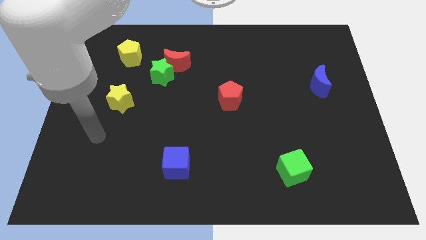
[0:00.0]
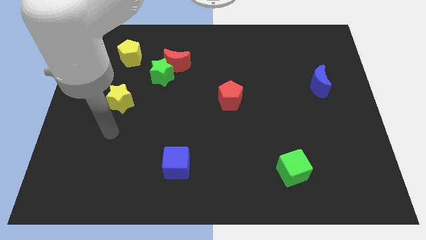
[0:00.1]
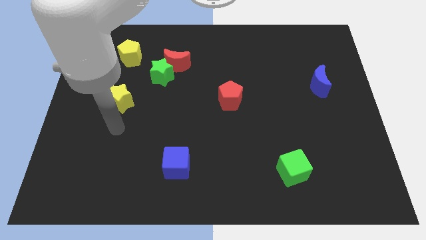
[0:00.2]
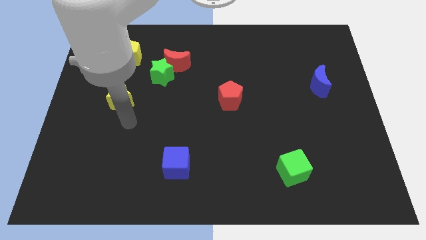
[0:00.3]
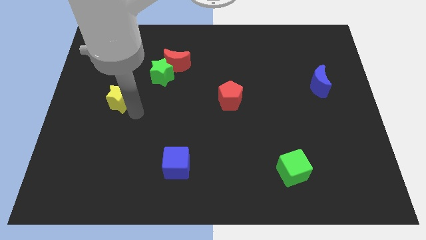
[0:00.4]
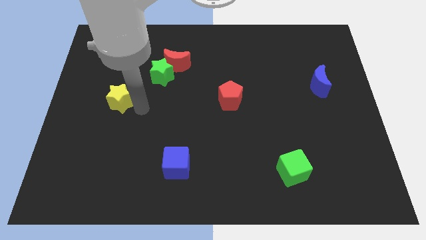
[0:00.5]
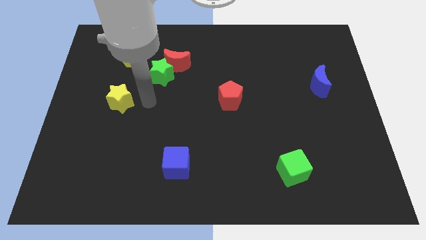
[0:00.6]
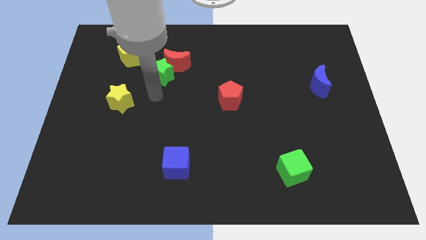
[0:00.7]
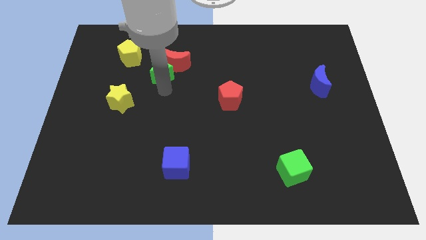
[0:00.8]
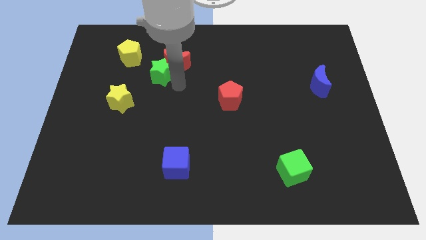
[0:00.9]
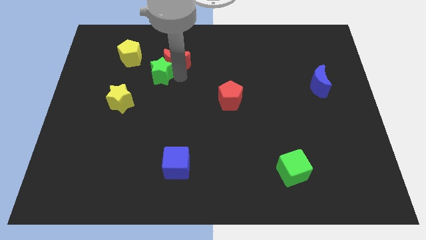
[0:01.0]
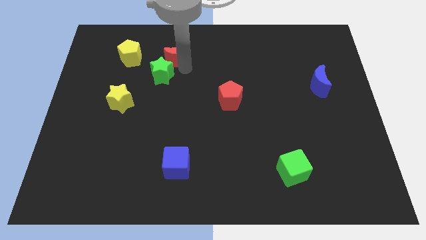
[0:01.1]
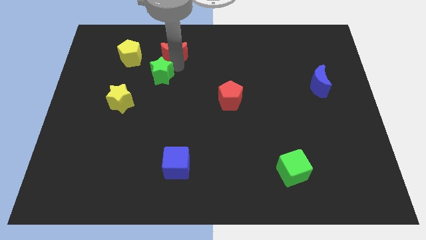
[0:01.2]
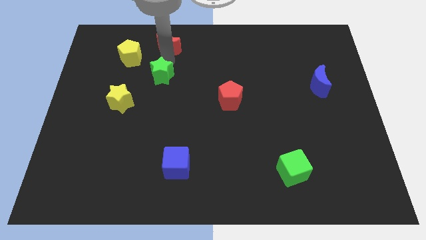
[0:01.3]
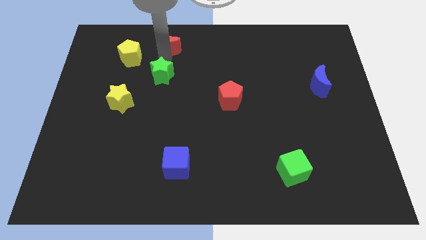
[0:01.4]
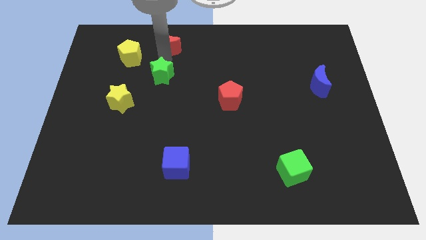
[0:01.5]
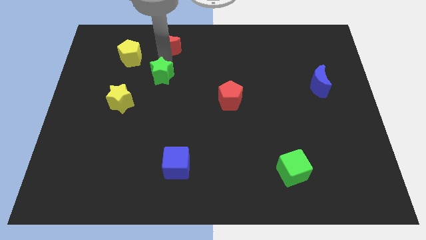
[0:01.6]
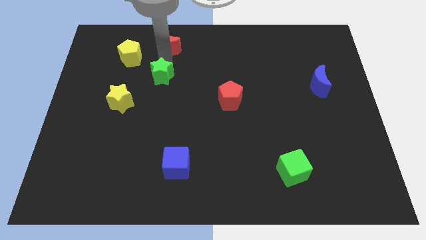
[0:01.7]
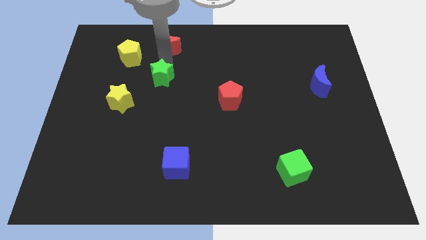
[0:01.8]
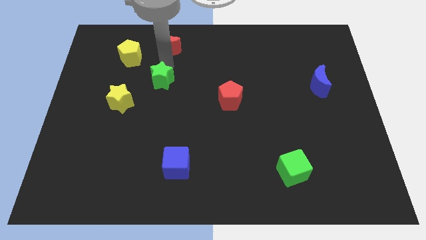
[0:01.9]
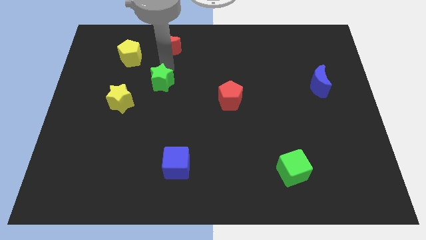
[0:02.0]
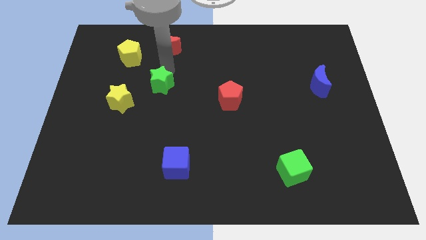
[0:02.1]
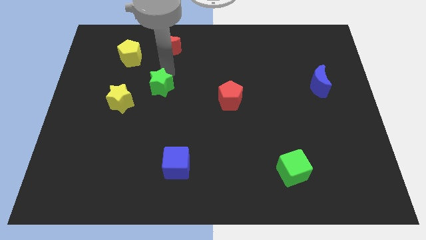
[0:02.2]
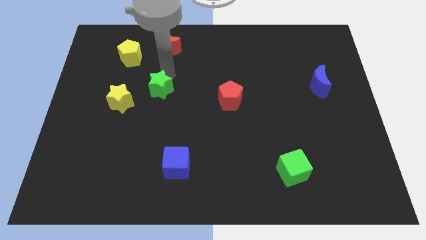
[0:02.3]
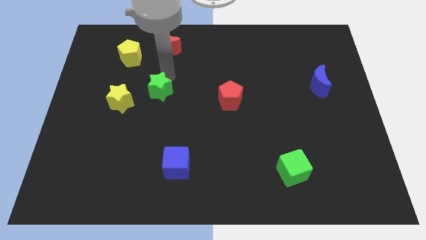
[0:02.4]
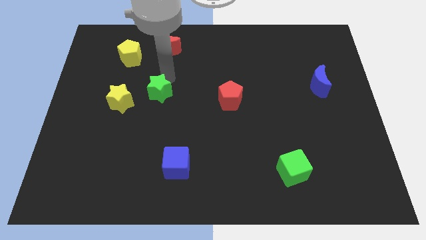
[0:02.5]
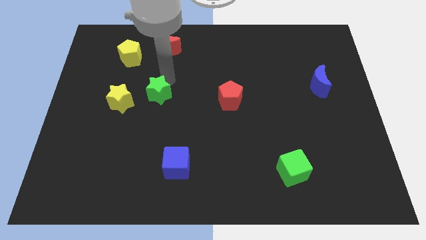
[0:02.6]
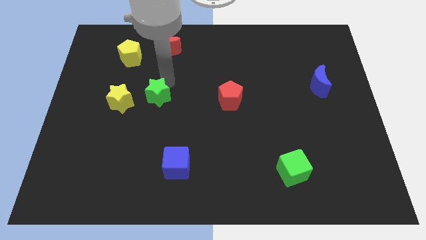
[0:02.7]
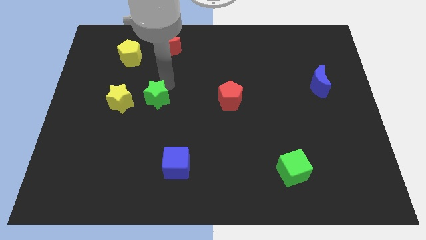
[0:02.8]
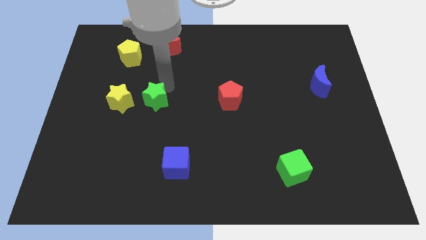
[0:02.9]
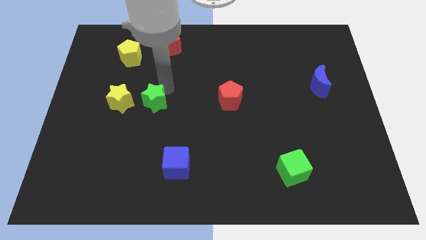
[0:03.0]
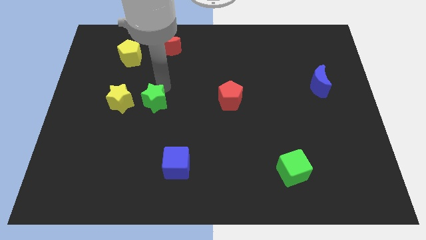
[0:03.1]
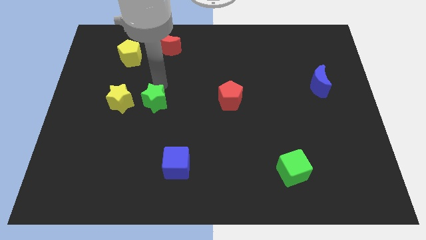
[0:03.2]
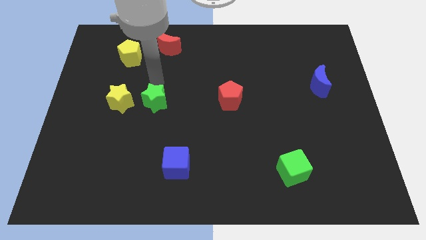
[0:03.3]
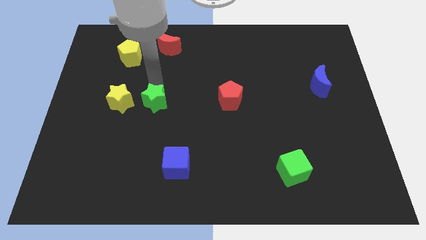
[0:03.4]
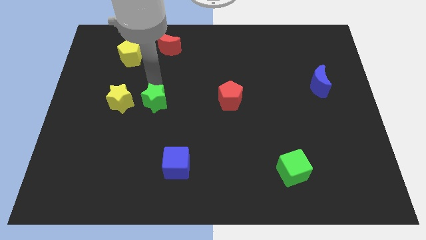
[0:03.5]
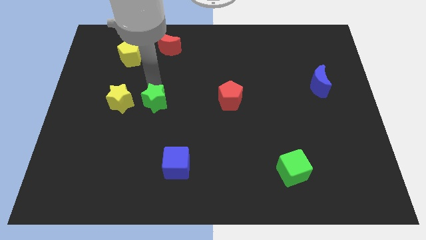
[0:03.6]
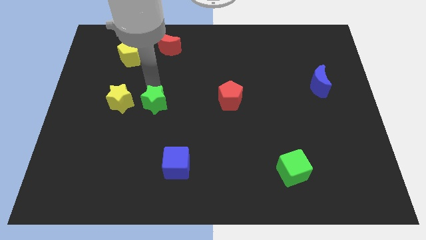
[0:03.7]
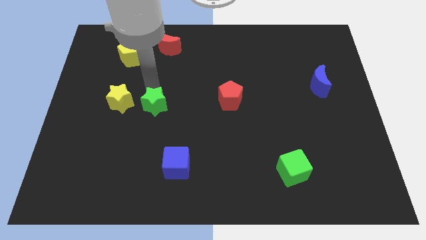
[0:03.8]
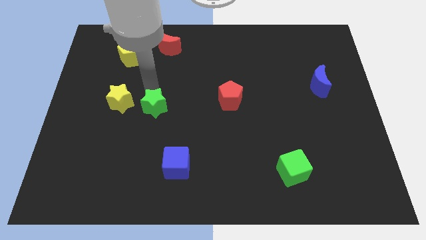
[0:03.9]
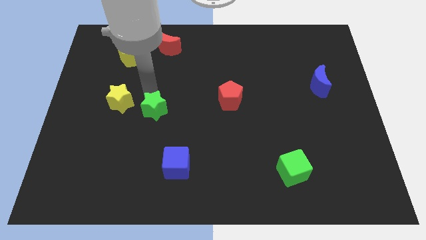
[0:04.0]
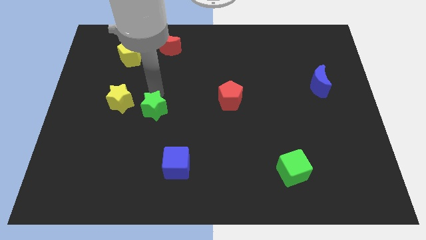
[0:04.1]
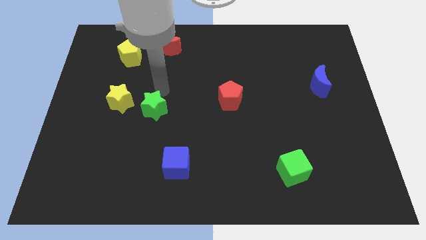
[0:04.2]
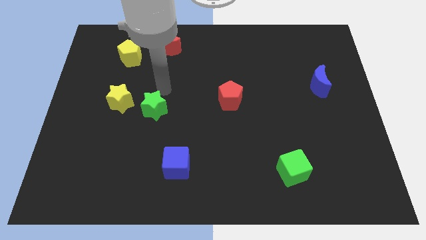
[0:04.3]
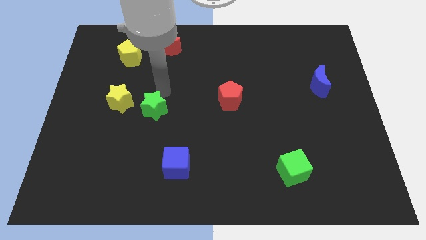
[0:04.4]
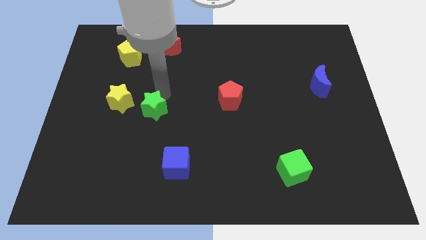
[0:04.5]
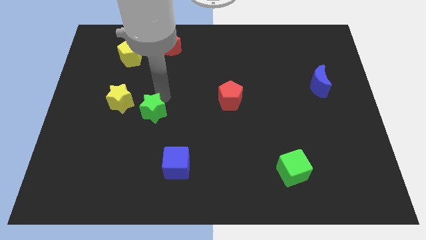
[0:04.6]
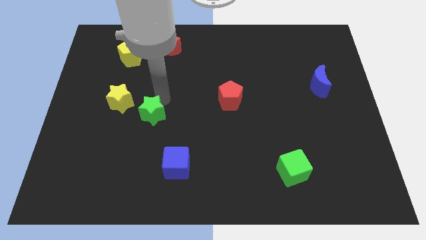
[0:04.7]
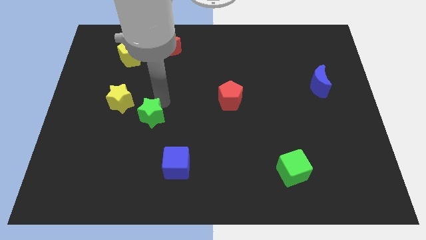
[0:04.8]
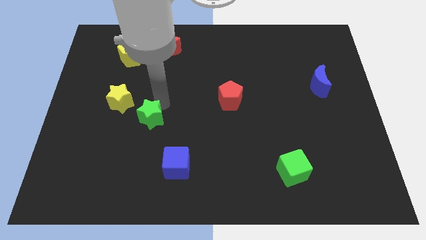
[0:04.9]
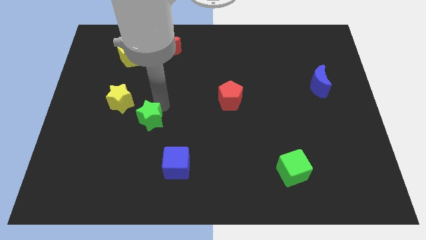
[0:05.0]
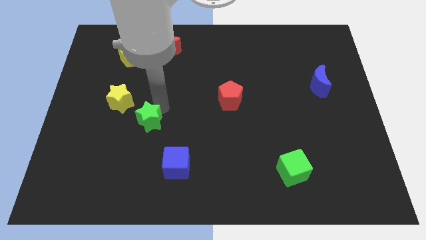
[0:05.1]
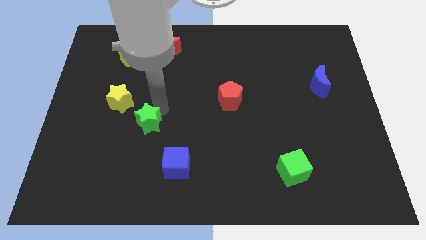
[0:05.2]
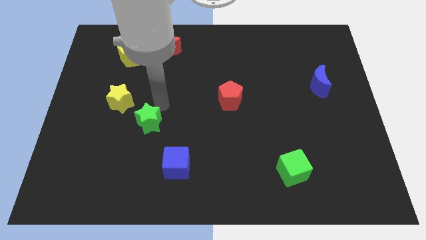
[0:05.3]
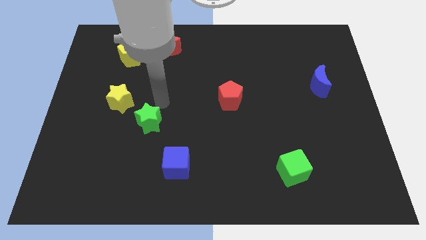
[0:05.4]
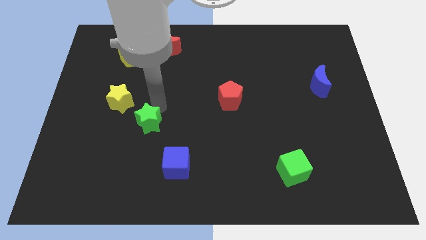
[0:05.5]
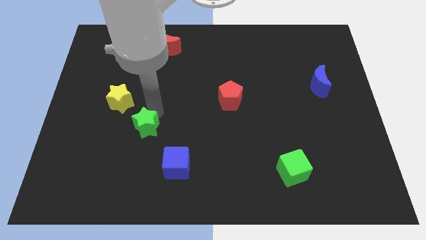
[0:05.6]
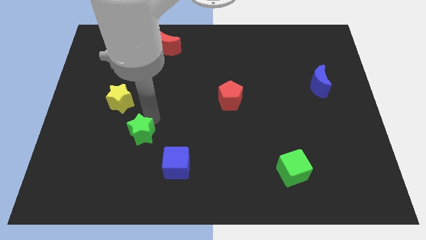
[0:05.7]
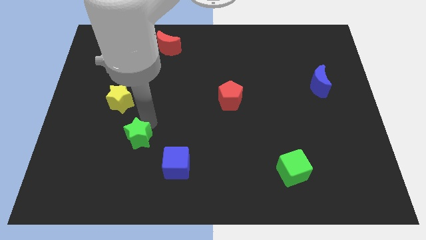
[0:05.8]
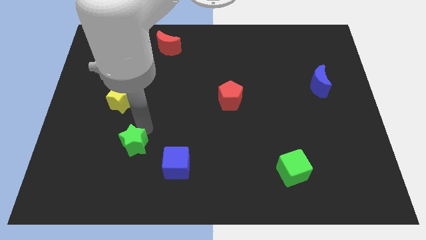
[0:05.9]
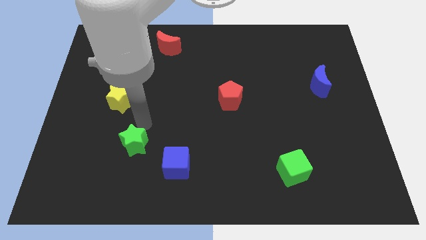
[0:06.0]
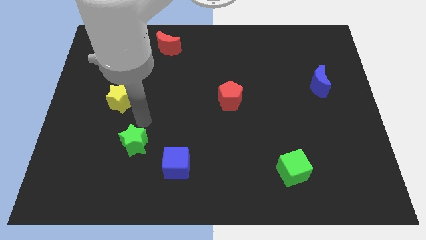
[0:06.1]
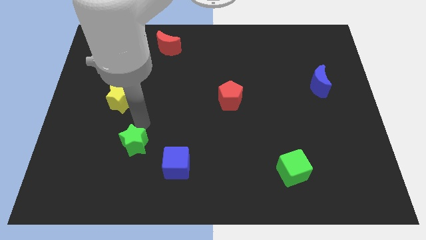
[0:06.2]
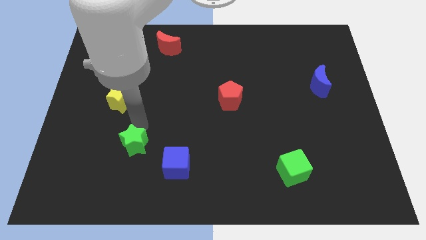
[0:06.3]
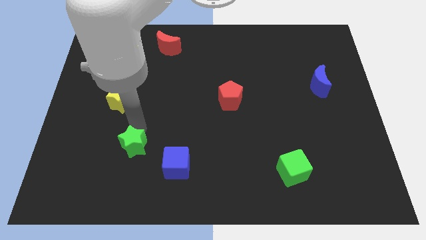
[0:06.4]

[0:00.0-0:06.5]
push the green star to the left of the blue cube

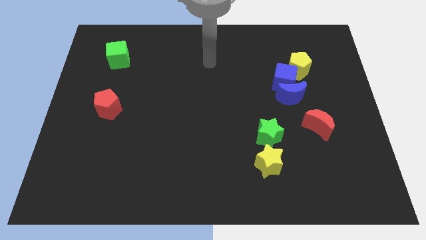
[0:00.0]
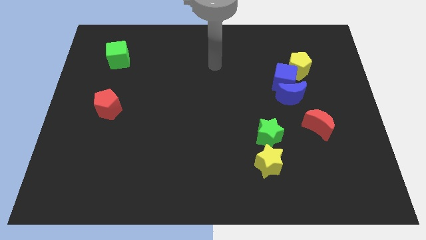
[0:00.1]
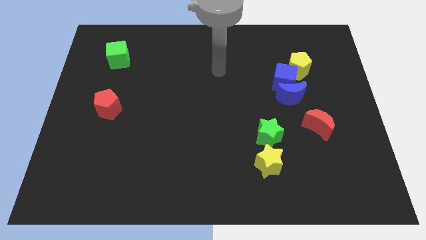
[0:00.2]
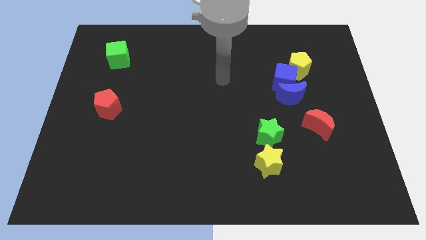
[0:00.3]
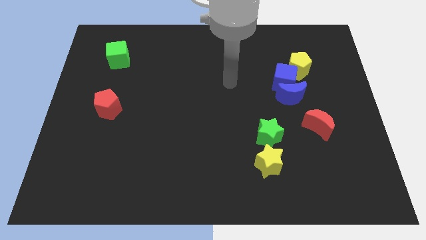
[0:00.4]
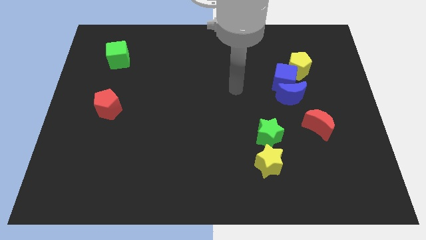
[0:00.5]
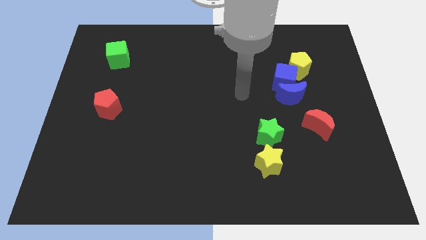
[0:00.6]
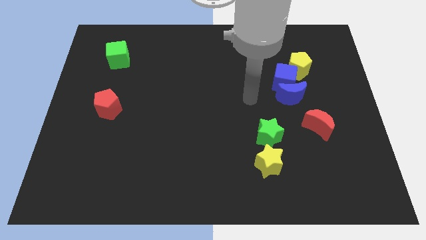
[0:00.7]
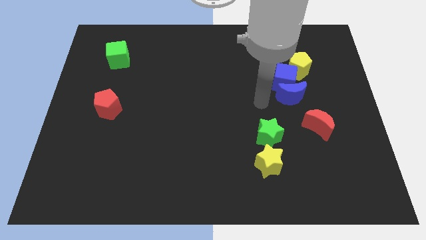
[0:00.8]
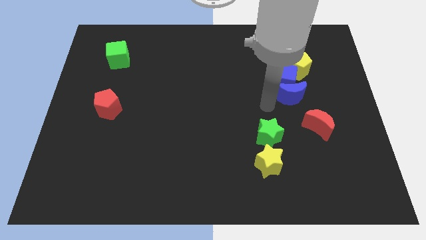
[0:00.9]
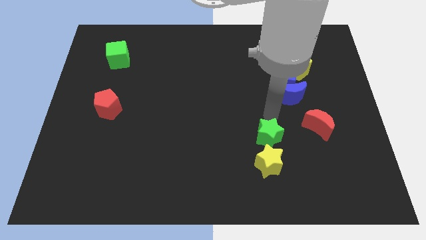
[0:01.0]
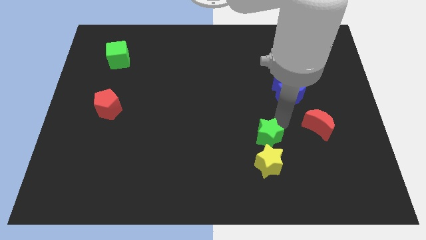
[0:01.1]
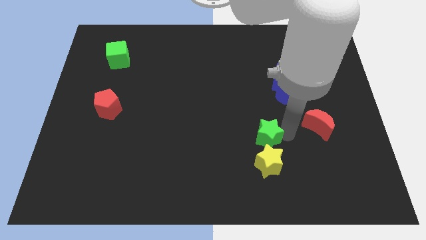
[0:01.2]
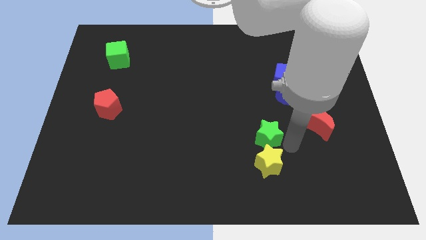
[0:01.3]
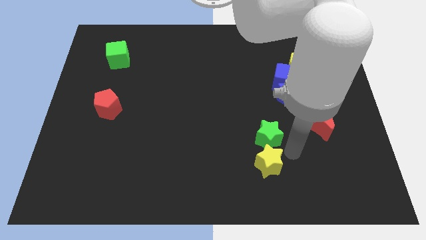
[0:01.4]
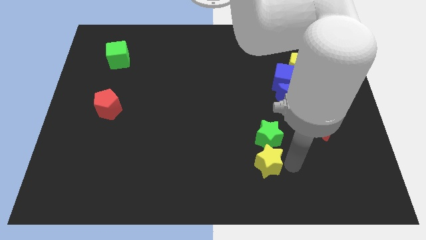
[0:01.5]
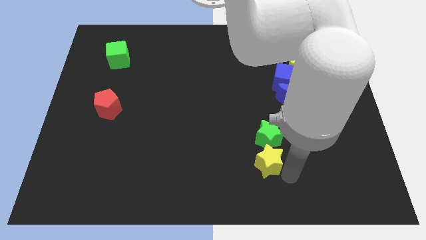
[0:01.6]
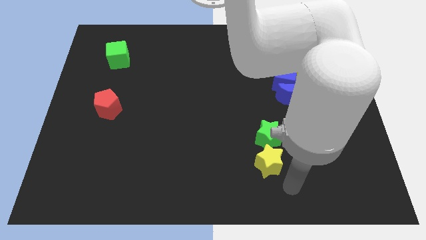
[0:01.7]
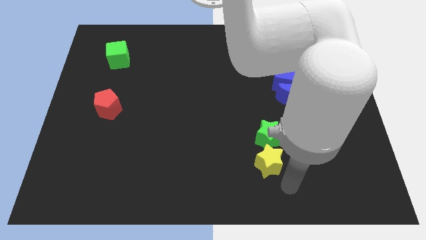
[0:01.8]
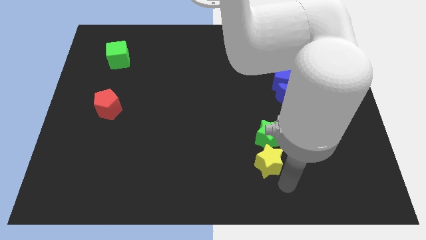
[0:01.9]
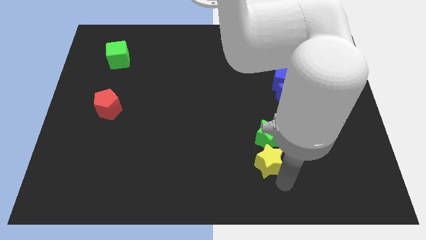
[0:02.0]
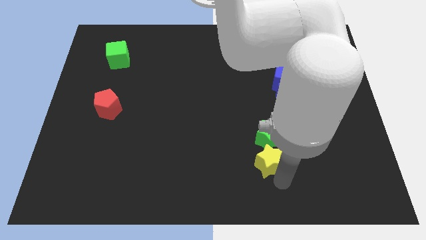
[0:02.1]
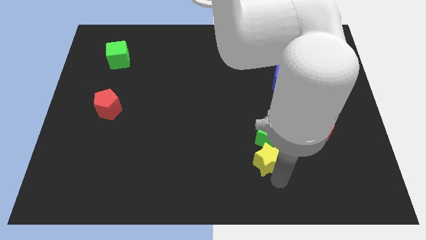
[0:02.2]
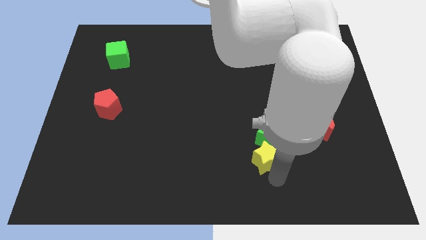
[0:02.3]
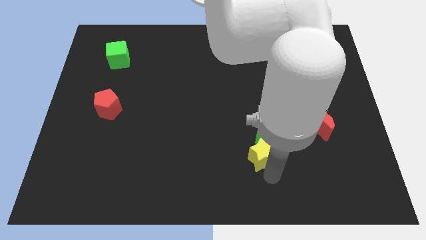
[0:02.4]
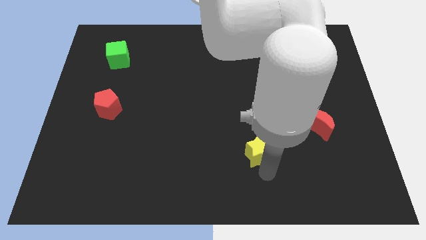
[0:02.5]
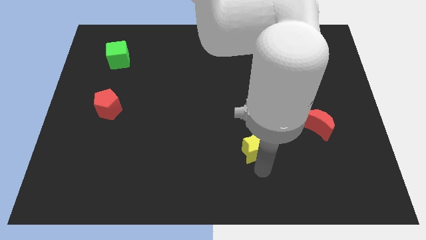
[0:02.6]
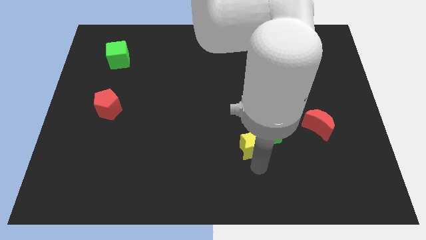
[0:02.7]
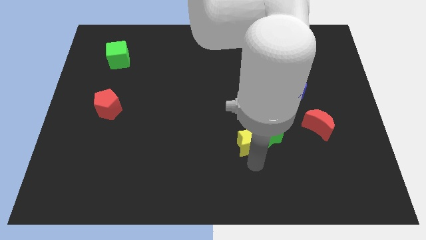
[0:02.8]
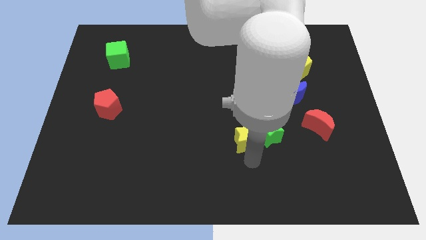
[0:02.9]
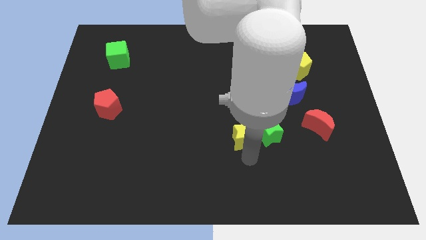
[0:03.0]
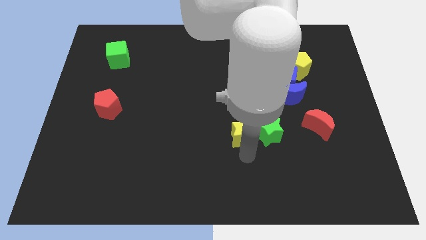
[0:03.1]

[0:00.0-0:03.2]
put the yellow star diagonally up and to the left of the green star
